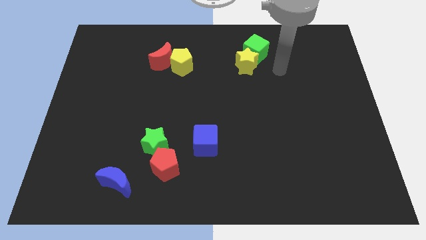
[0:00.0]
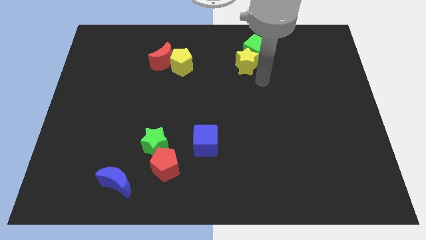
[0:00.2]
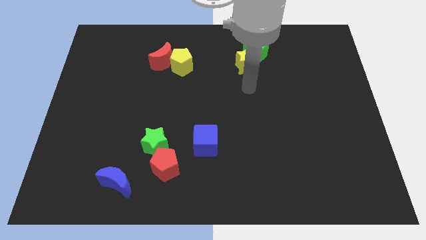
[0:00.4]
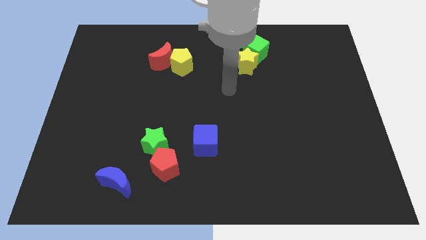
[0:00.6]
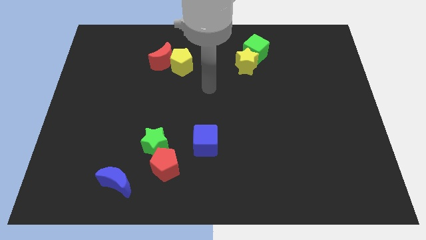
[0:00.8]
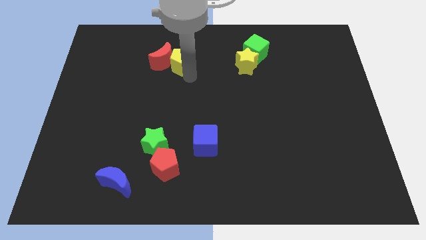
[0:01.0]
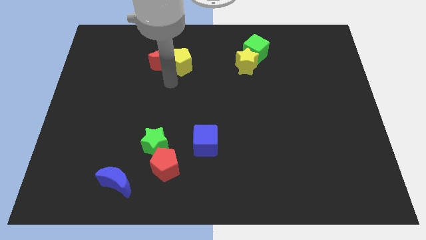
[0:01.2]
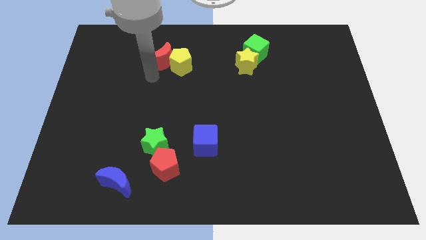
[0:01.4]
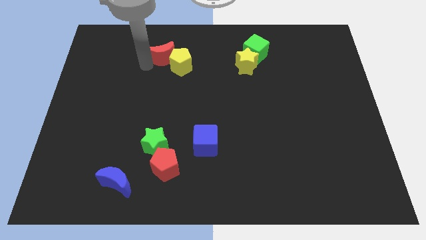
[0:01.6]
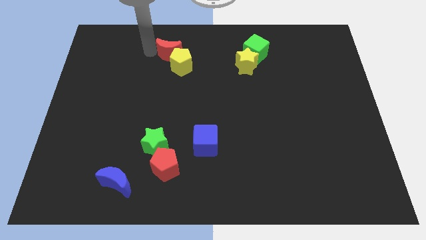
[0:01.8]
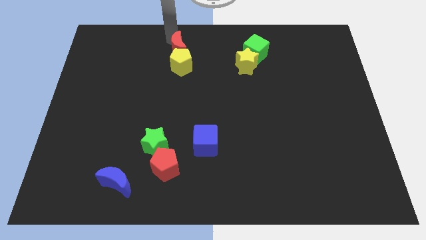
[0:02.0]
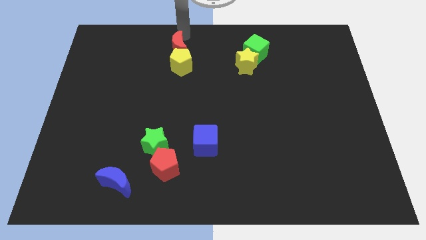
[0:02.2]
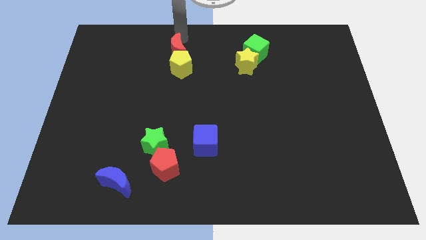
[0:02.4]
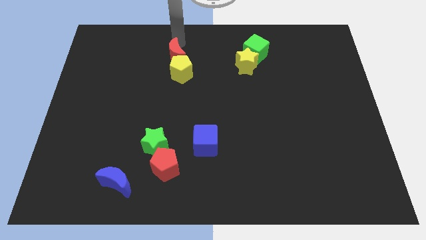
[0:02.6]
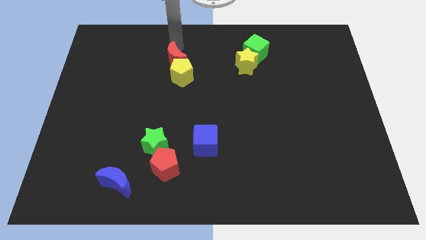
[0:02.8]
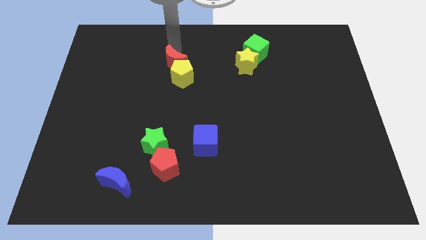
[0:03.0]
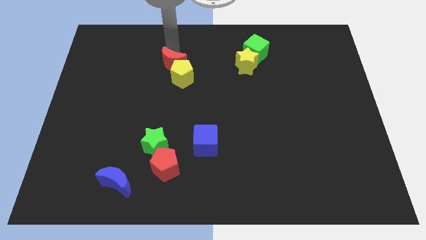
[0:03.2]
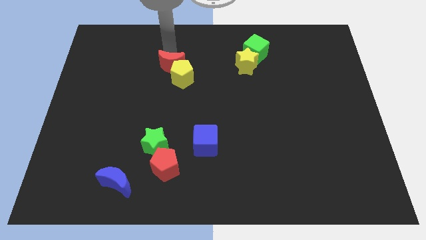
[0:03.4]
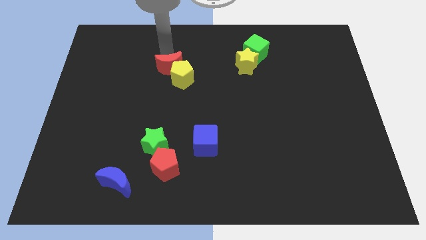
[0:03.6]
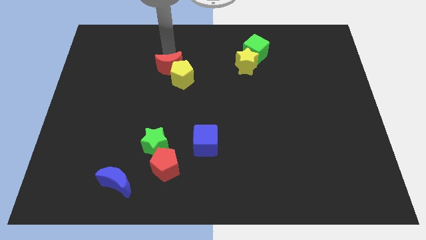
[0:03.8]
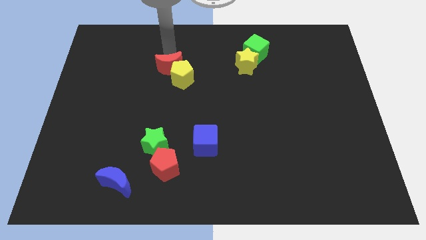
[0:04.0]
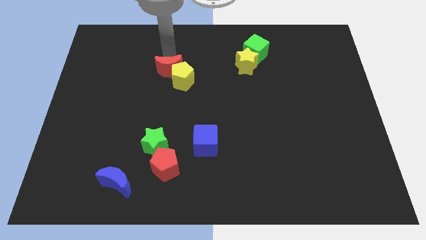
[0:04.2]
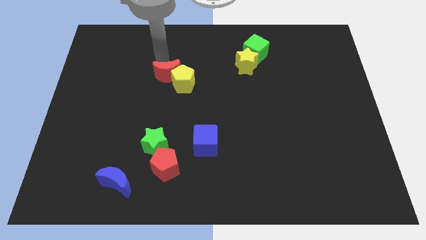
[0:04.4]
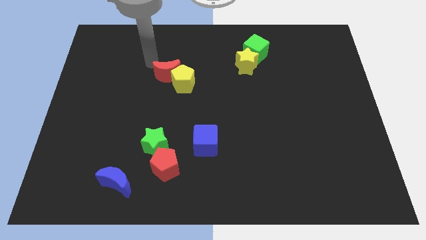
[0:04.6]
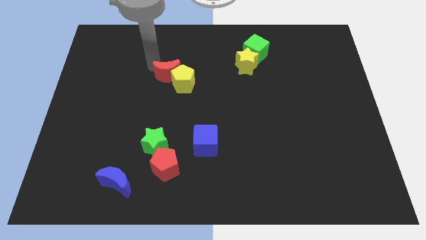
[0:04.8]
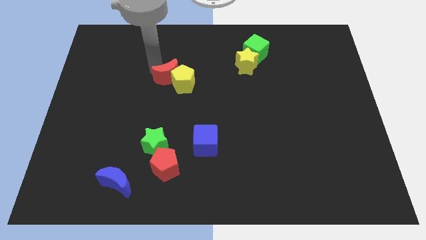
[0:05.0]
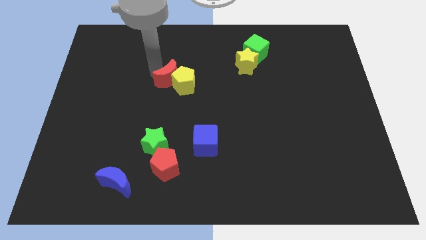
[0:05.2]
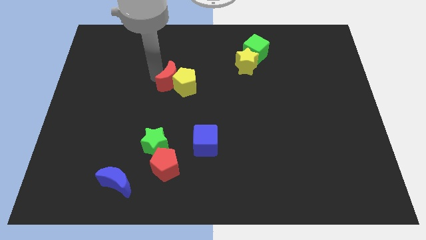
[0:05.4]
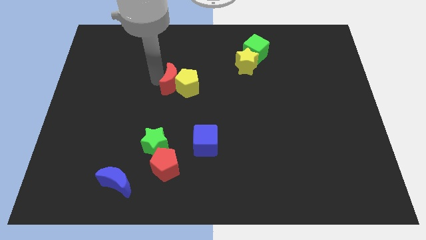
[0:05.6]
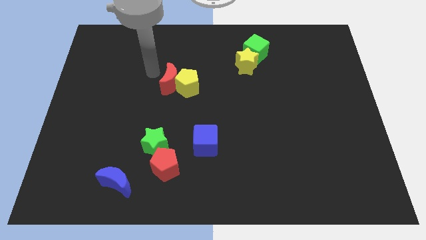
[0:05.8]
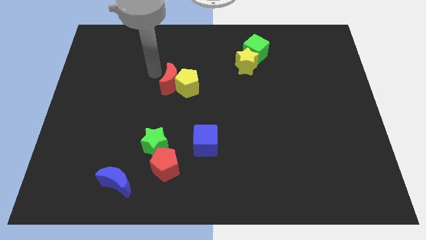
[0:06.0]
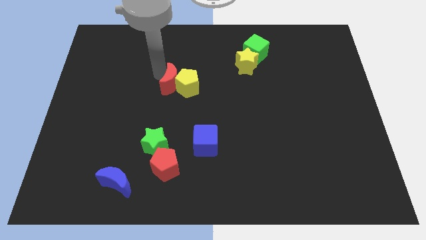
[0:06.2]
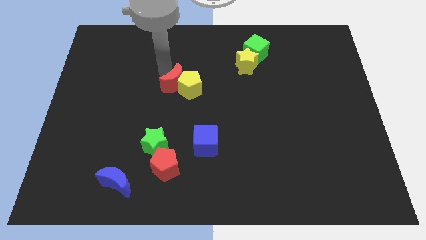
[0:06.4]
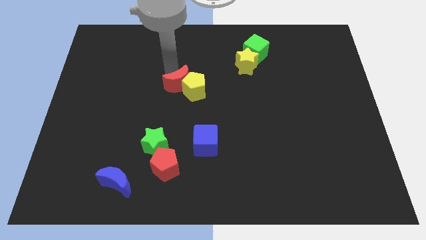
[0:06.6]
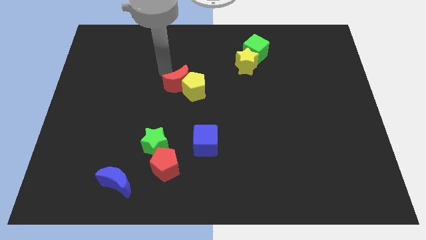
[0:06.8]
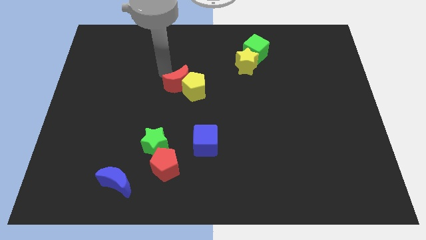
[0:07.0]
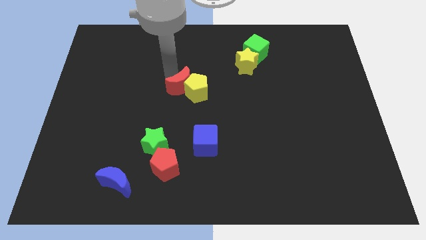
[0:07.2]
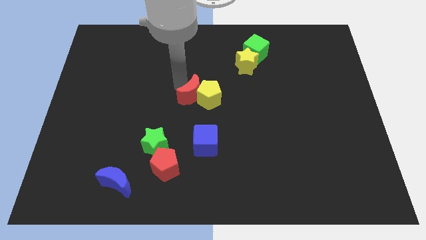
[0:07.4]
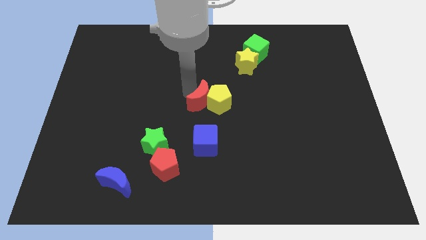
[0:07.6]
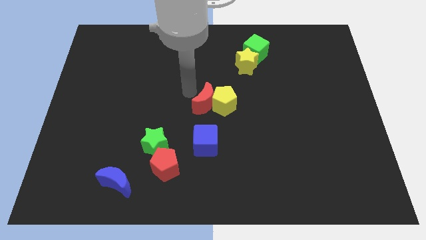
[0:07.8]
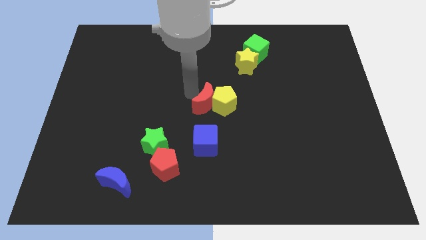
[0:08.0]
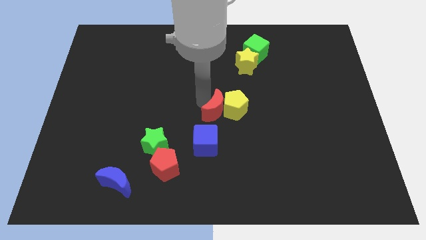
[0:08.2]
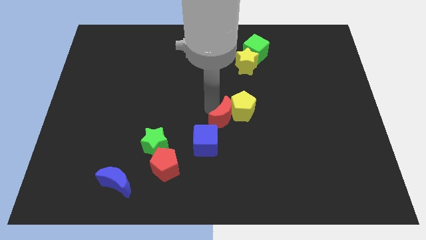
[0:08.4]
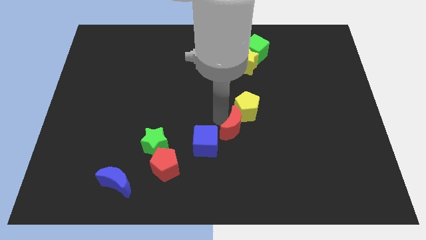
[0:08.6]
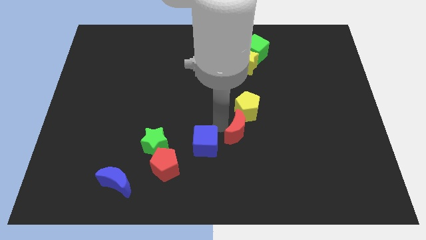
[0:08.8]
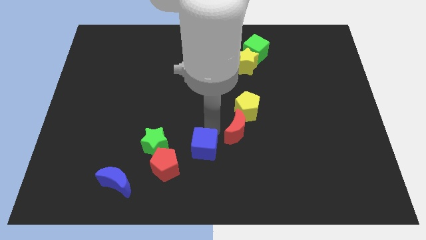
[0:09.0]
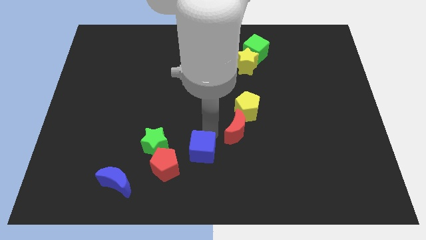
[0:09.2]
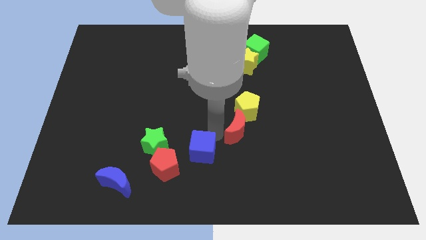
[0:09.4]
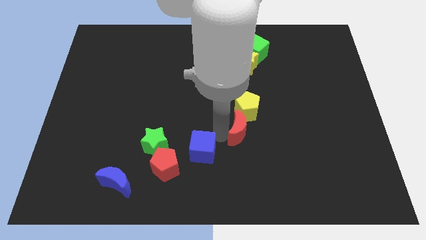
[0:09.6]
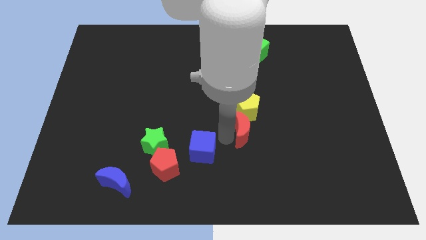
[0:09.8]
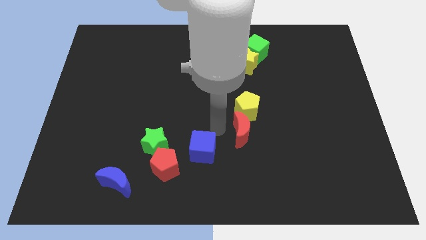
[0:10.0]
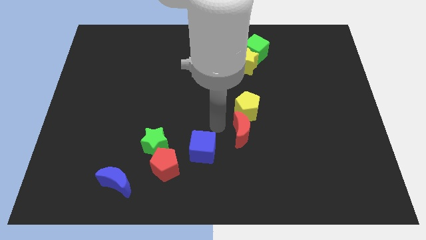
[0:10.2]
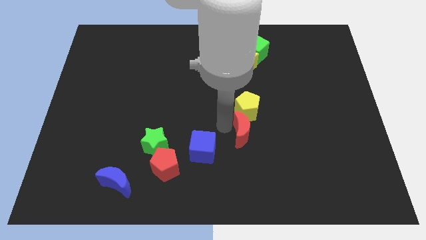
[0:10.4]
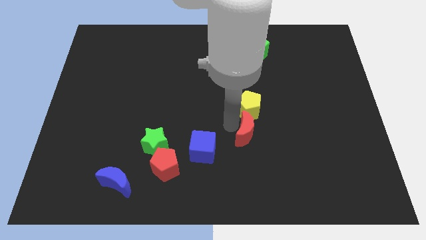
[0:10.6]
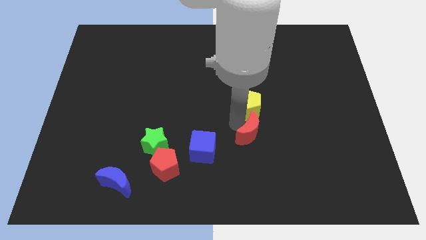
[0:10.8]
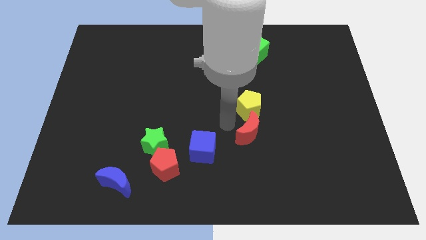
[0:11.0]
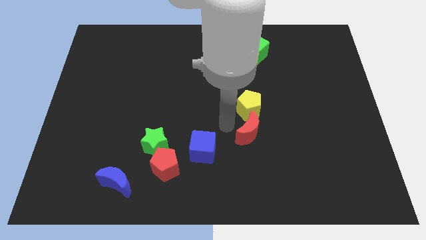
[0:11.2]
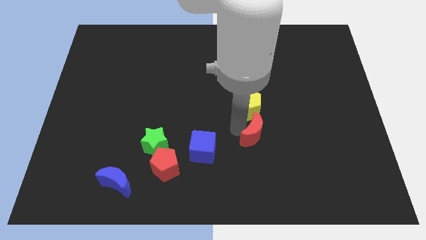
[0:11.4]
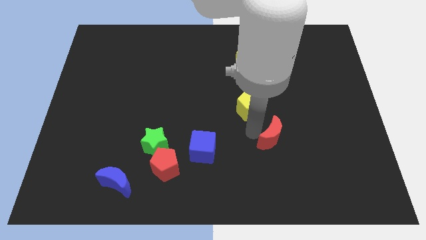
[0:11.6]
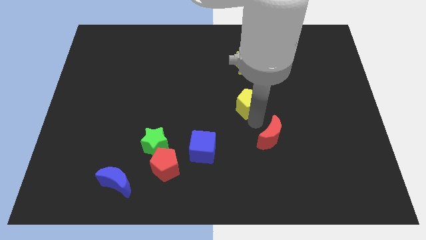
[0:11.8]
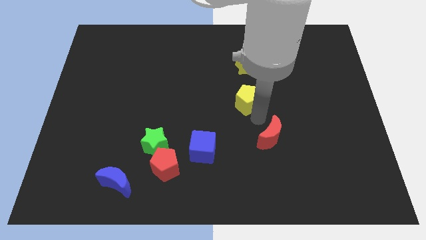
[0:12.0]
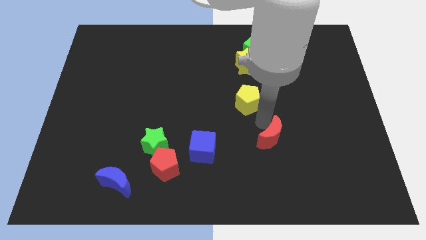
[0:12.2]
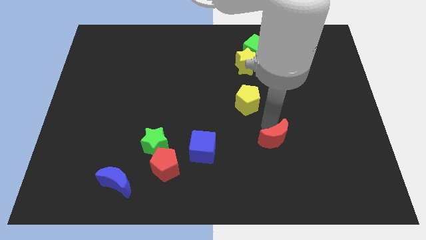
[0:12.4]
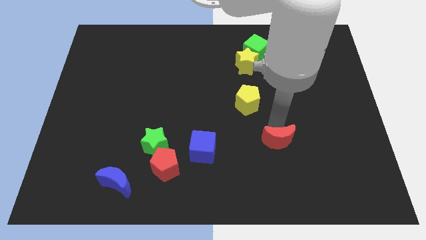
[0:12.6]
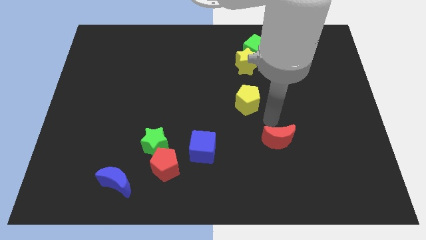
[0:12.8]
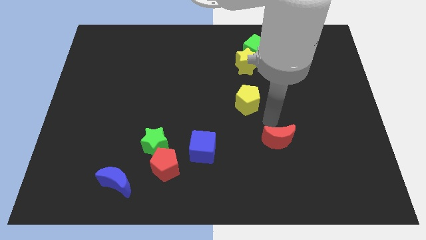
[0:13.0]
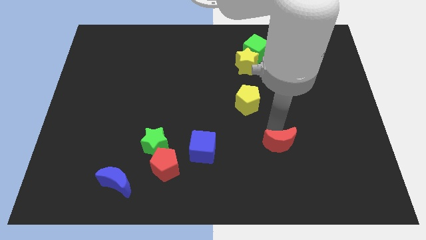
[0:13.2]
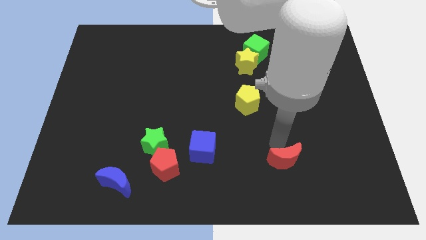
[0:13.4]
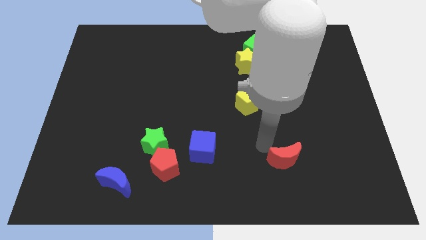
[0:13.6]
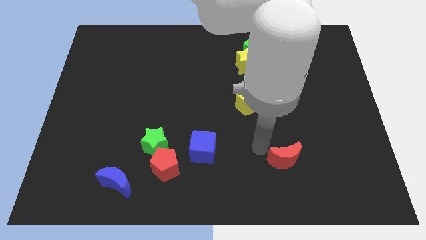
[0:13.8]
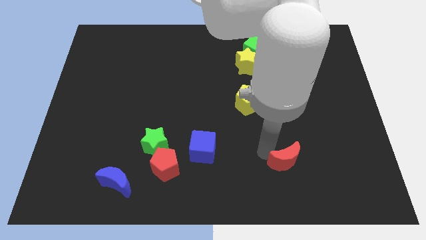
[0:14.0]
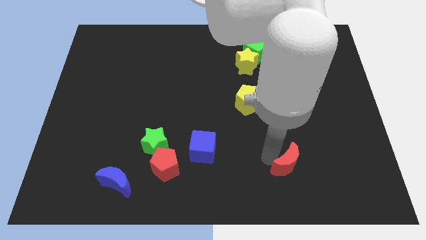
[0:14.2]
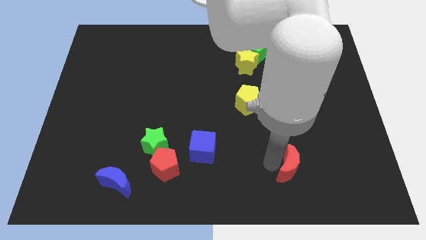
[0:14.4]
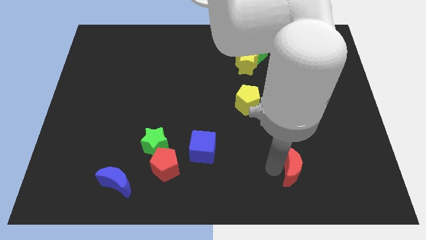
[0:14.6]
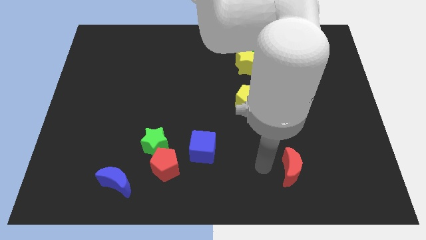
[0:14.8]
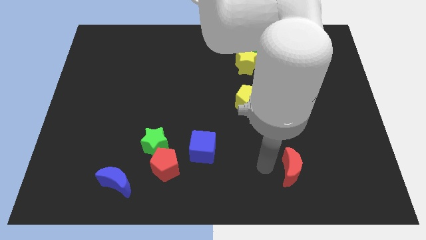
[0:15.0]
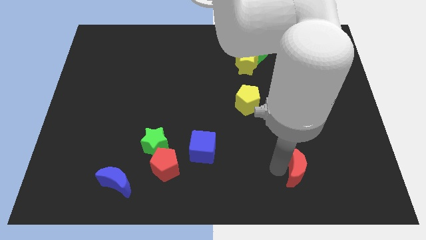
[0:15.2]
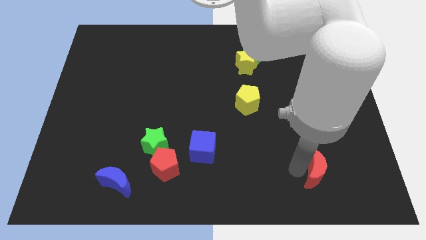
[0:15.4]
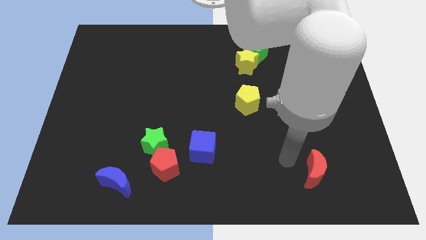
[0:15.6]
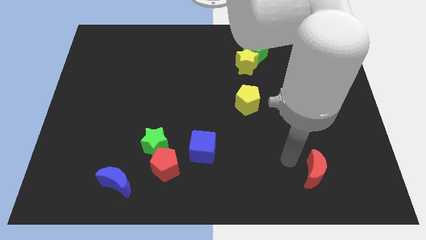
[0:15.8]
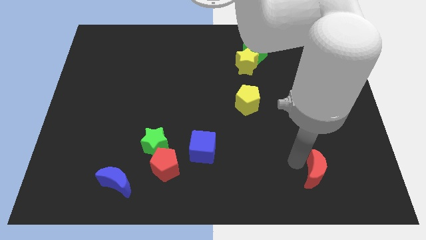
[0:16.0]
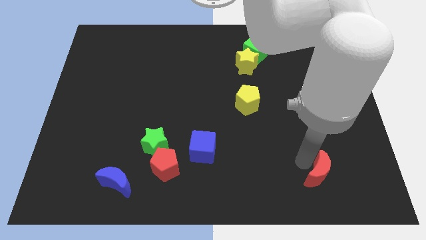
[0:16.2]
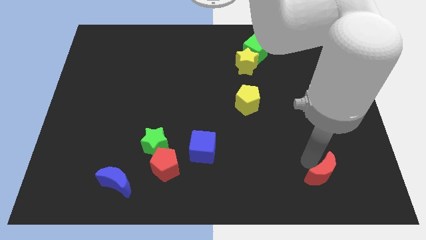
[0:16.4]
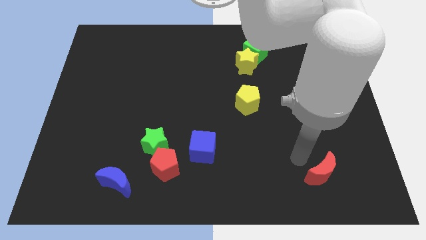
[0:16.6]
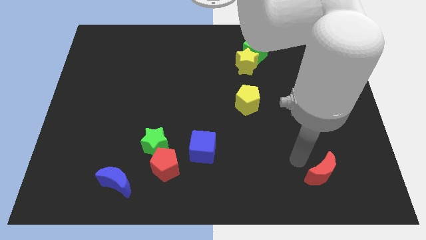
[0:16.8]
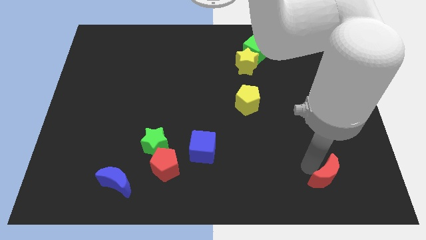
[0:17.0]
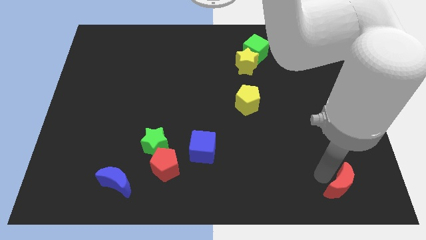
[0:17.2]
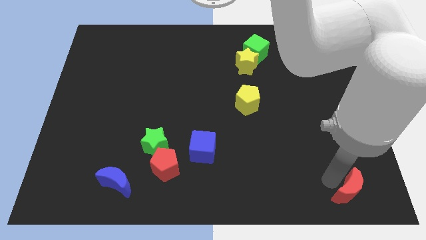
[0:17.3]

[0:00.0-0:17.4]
move the red moon to the lower right corner
